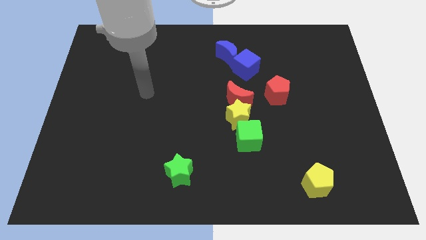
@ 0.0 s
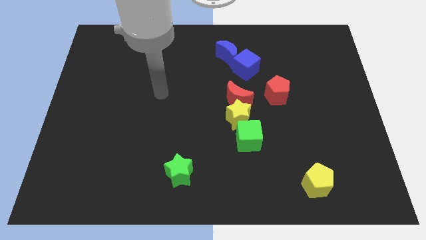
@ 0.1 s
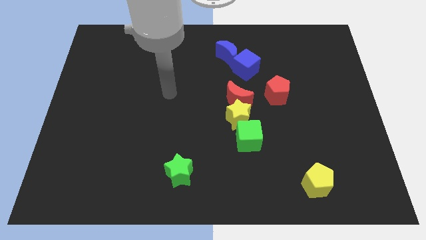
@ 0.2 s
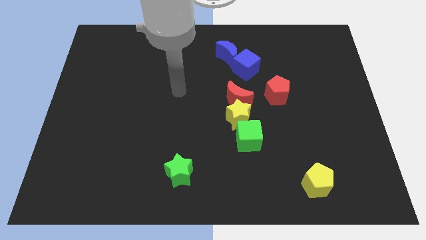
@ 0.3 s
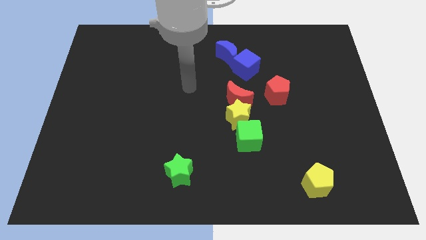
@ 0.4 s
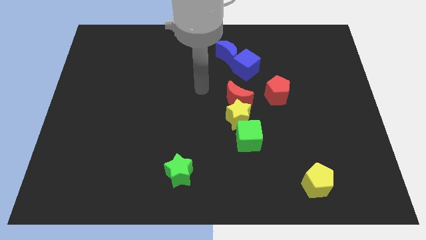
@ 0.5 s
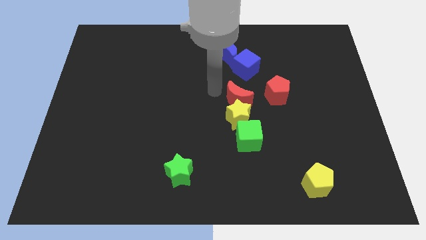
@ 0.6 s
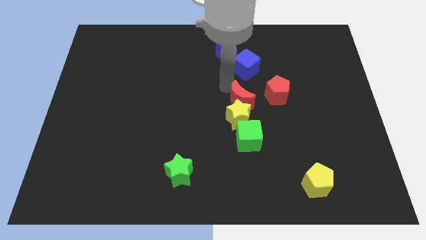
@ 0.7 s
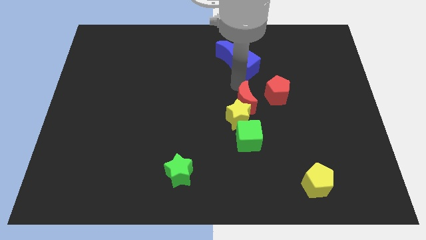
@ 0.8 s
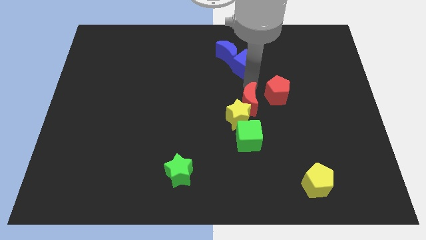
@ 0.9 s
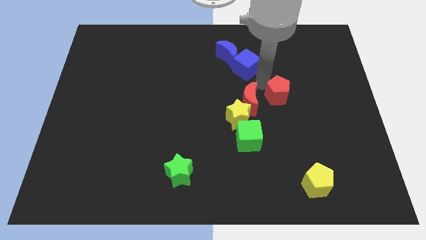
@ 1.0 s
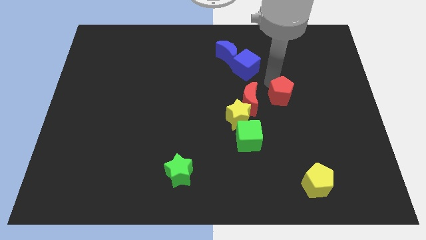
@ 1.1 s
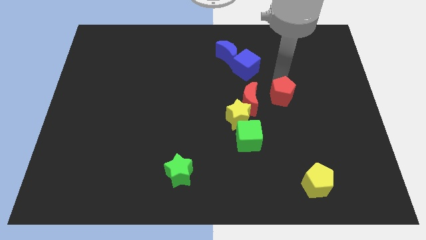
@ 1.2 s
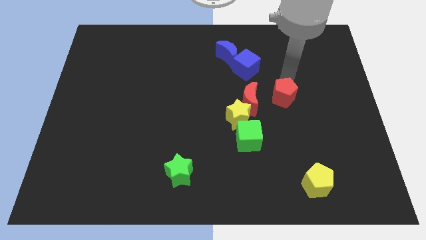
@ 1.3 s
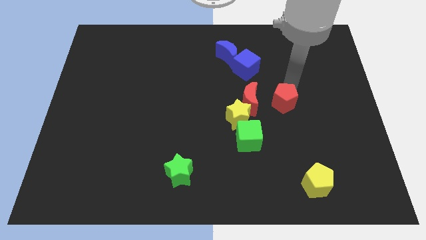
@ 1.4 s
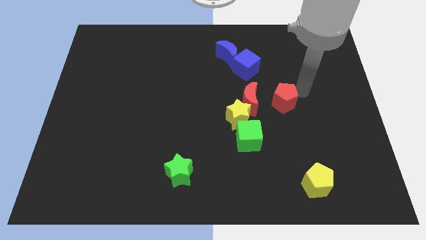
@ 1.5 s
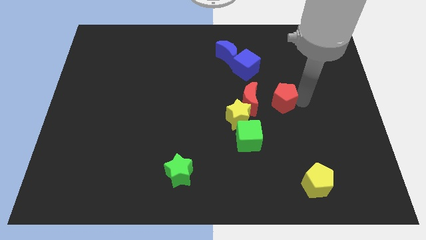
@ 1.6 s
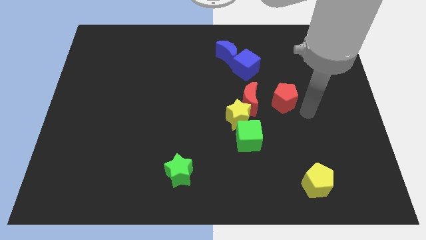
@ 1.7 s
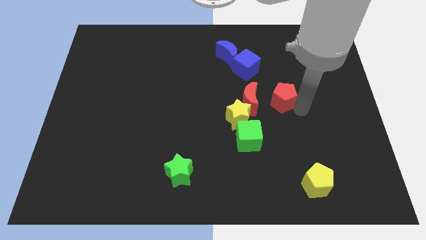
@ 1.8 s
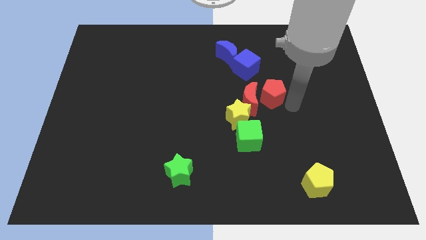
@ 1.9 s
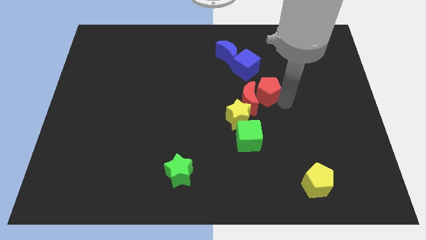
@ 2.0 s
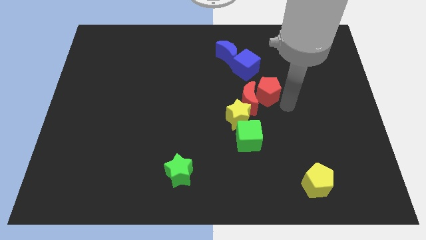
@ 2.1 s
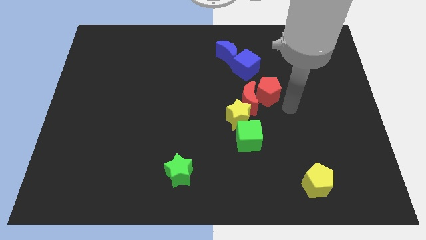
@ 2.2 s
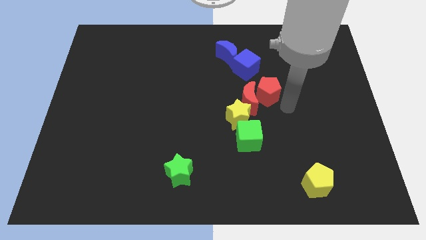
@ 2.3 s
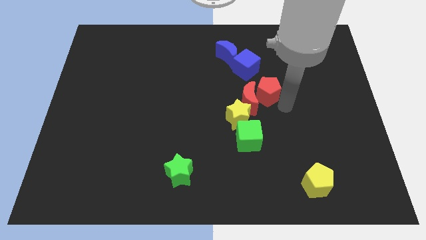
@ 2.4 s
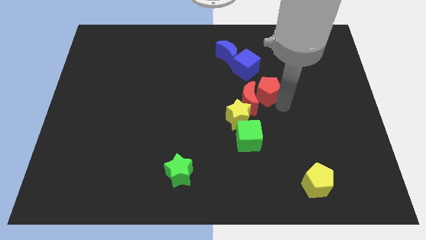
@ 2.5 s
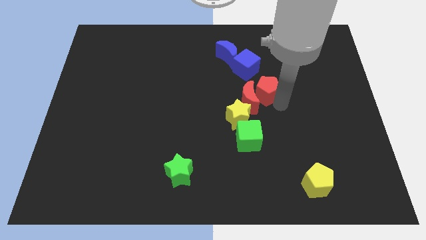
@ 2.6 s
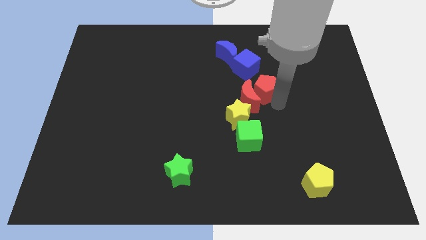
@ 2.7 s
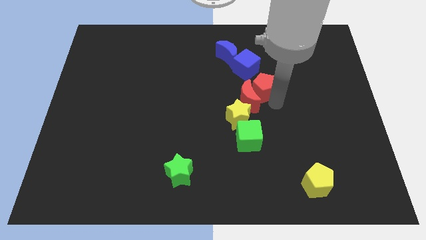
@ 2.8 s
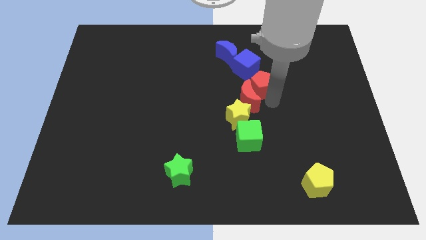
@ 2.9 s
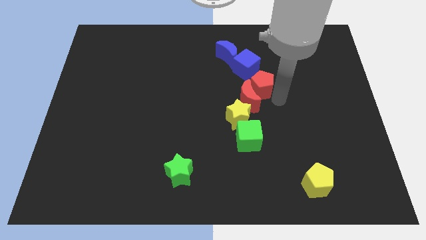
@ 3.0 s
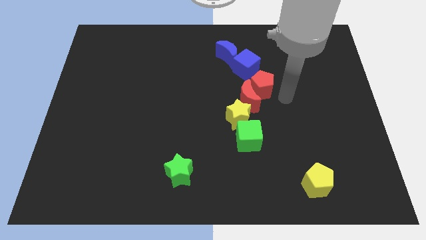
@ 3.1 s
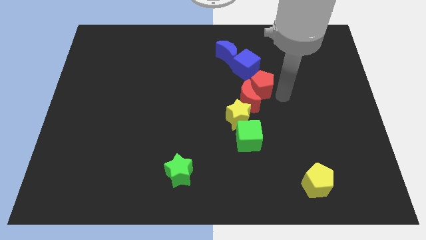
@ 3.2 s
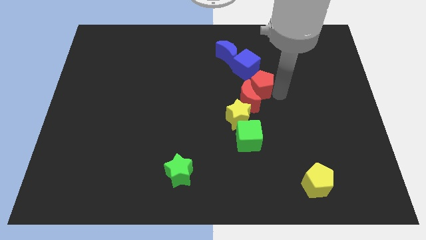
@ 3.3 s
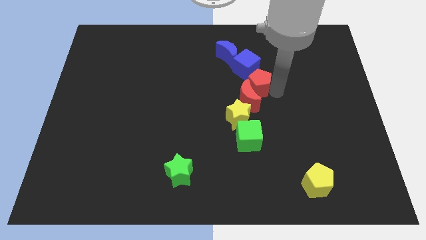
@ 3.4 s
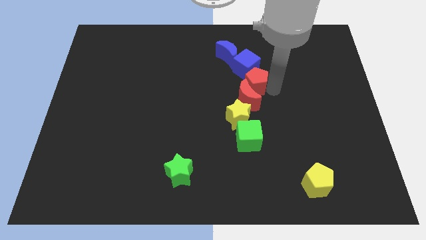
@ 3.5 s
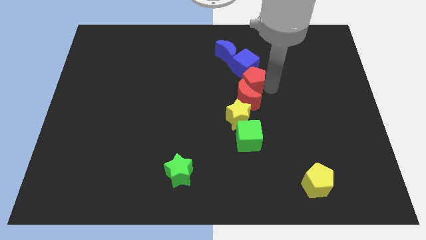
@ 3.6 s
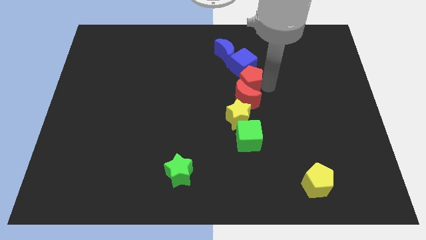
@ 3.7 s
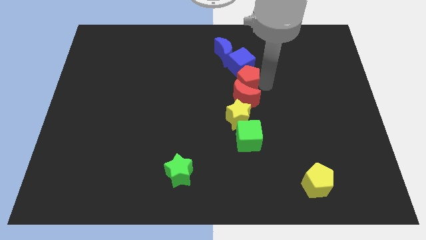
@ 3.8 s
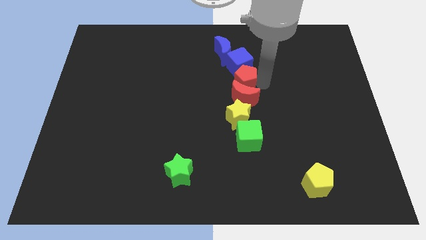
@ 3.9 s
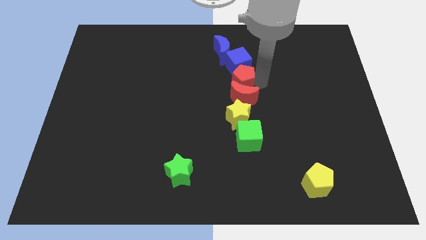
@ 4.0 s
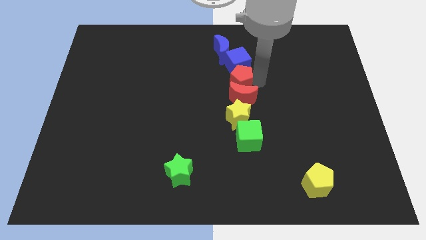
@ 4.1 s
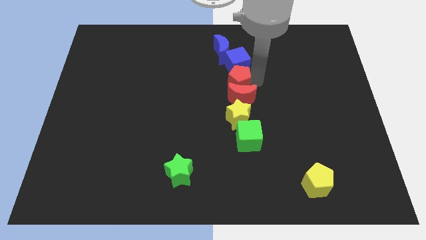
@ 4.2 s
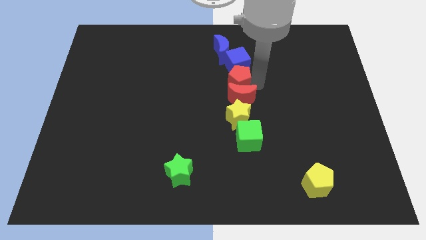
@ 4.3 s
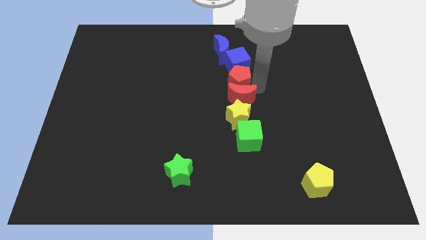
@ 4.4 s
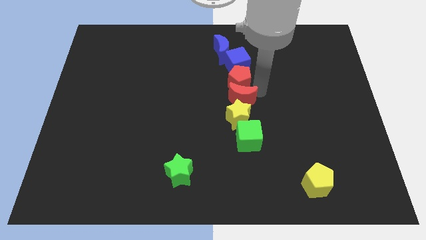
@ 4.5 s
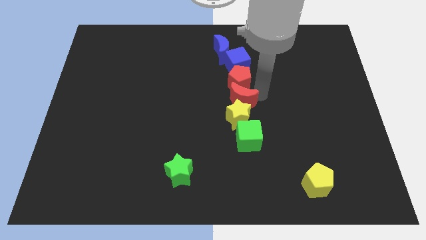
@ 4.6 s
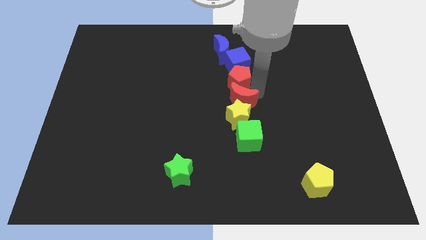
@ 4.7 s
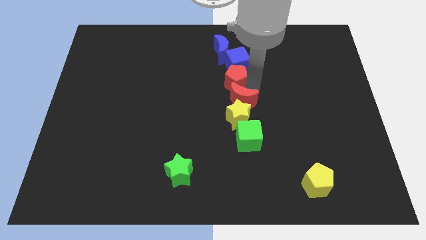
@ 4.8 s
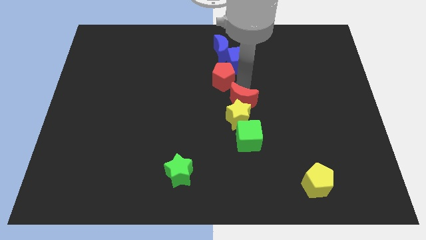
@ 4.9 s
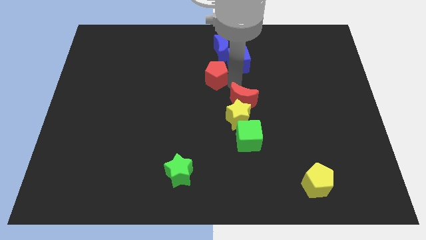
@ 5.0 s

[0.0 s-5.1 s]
put the red pentagon to the left side of the blue cube

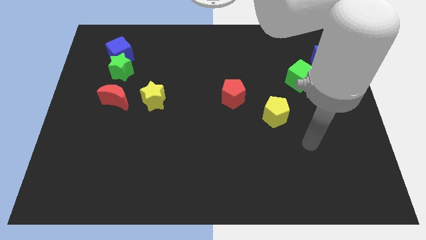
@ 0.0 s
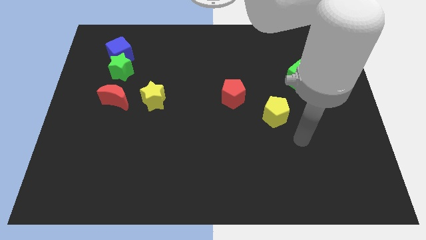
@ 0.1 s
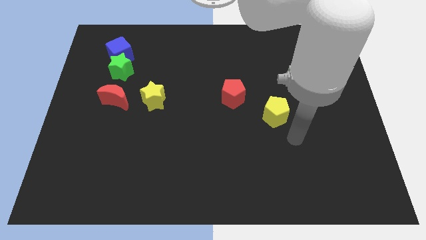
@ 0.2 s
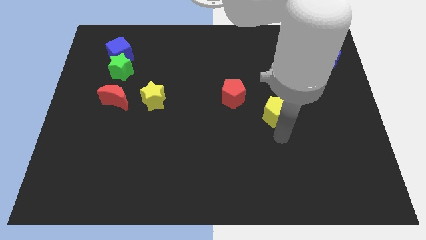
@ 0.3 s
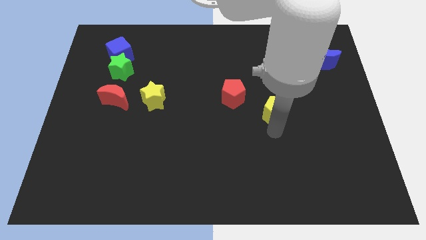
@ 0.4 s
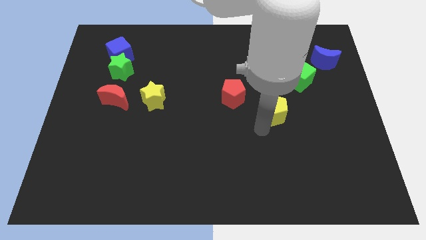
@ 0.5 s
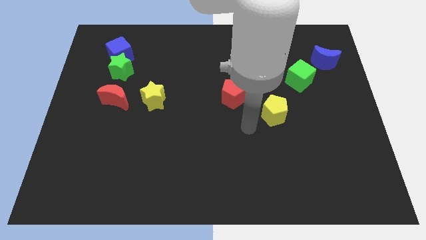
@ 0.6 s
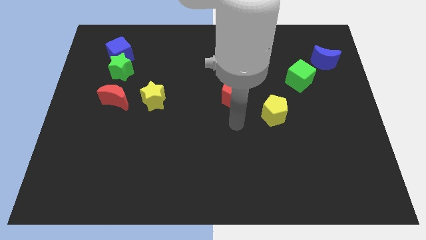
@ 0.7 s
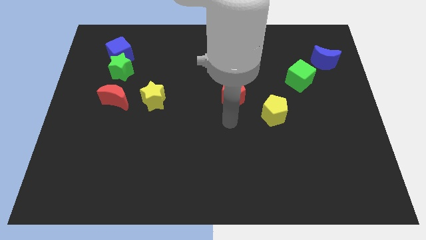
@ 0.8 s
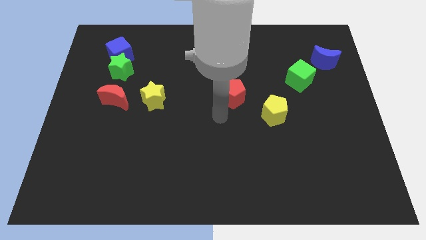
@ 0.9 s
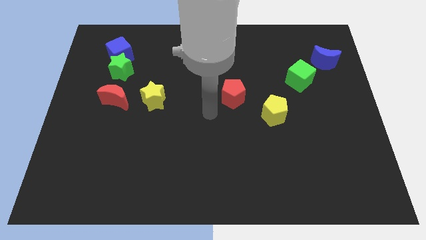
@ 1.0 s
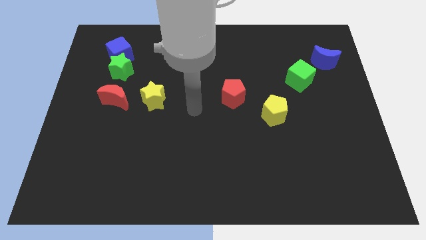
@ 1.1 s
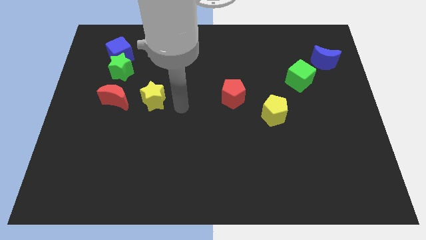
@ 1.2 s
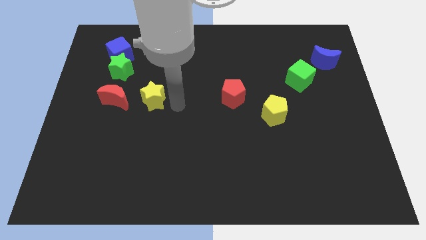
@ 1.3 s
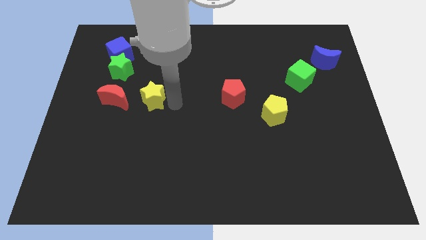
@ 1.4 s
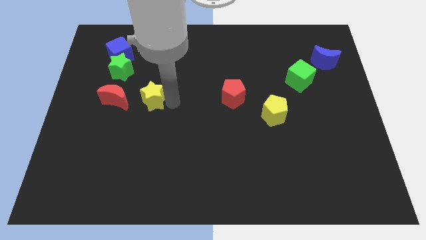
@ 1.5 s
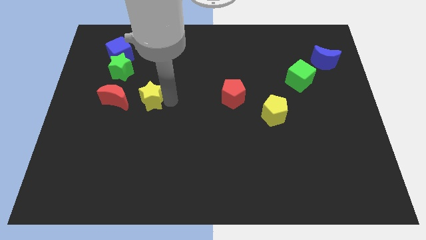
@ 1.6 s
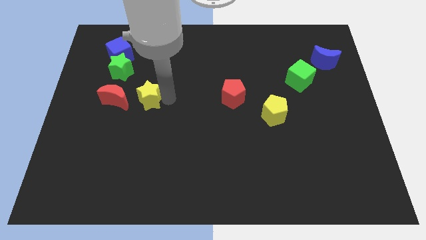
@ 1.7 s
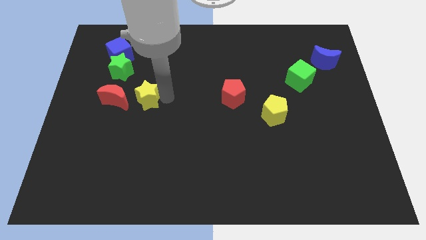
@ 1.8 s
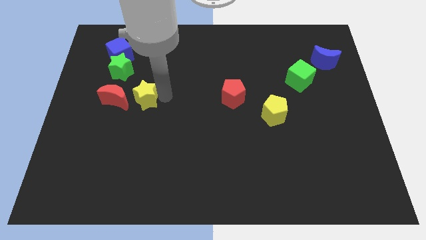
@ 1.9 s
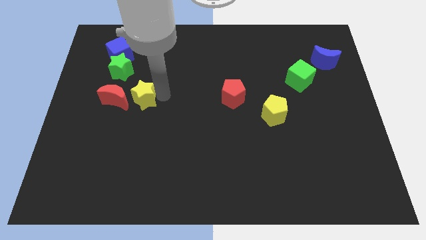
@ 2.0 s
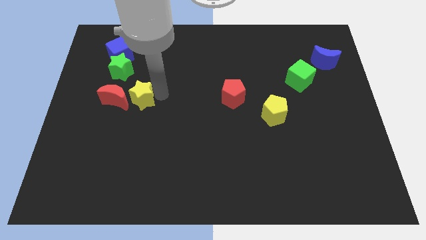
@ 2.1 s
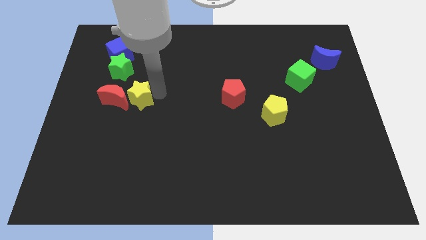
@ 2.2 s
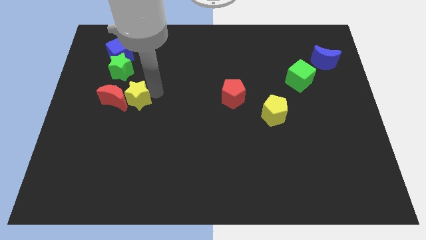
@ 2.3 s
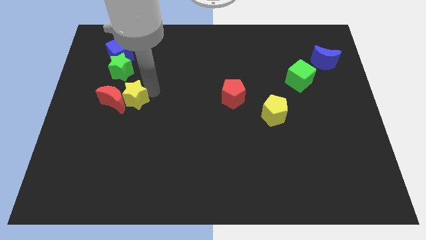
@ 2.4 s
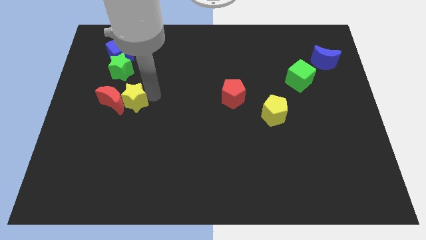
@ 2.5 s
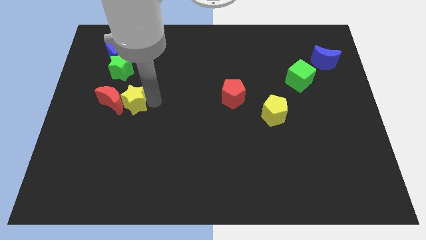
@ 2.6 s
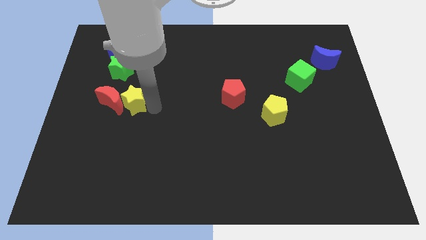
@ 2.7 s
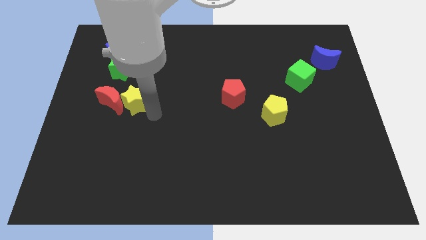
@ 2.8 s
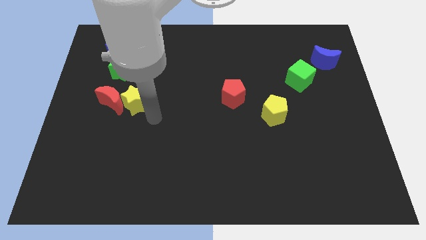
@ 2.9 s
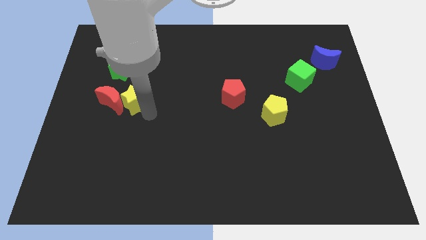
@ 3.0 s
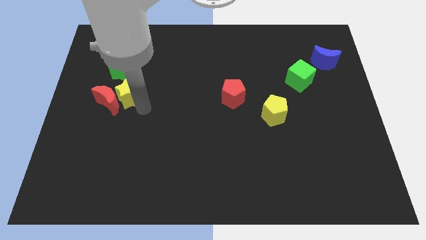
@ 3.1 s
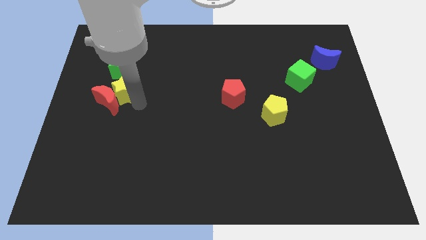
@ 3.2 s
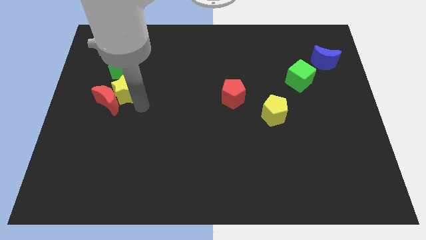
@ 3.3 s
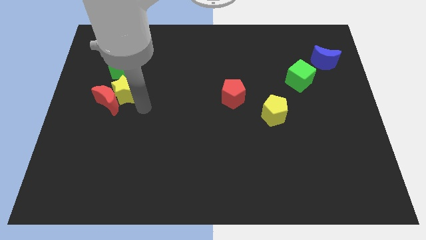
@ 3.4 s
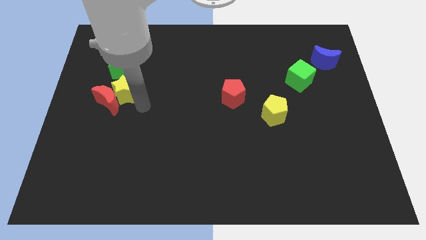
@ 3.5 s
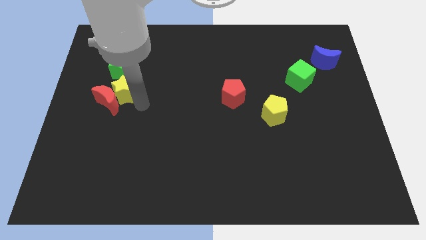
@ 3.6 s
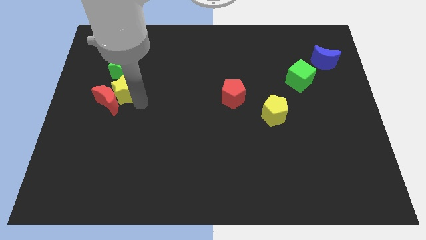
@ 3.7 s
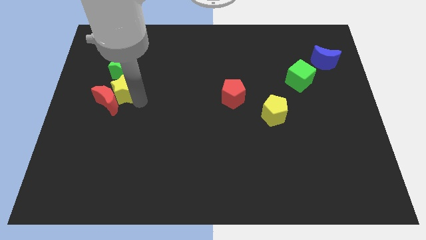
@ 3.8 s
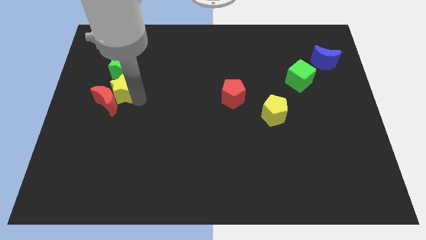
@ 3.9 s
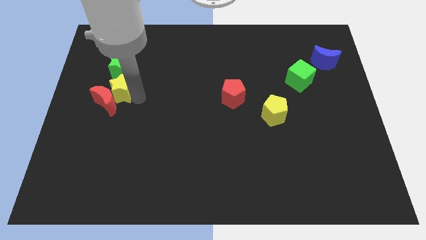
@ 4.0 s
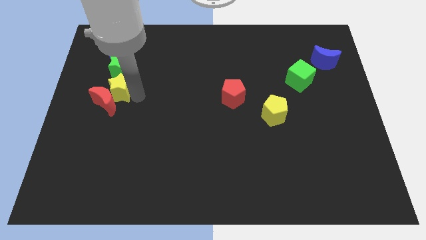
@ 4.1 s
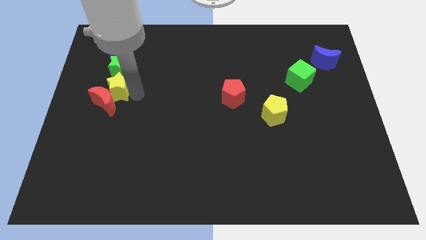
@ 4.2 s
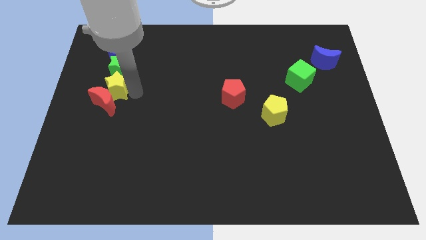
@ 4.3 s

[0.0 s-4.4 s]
move the yellow star diagonally down and to the left of the green star
